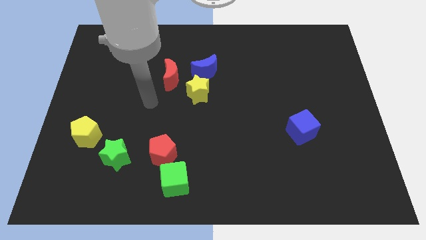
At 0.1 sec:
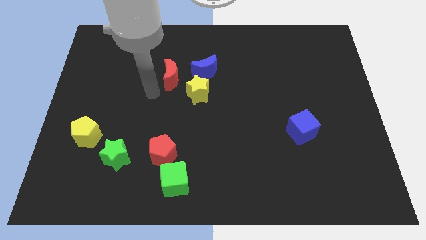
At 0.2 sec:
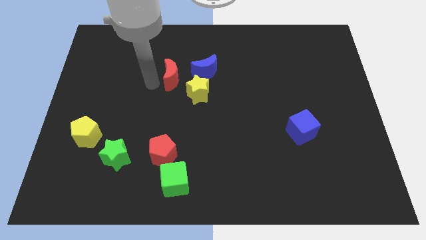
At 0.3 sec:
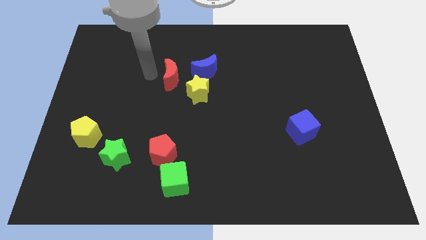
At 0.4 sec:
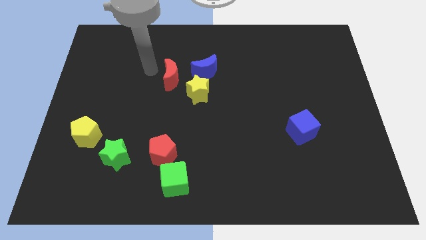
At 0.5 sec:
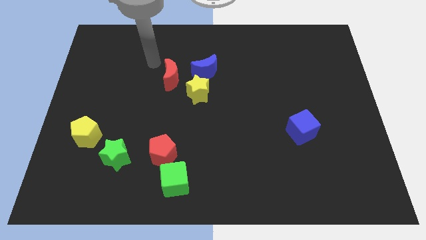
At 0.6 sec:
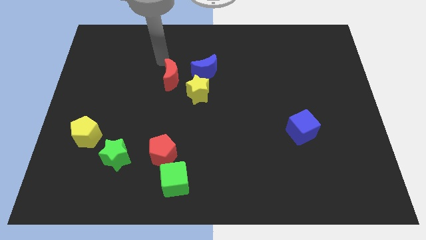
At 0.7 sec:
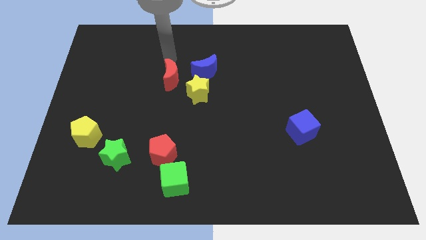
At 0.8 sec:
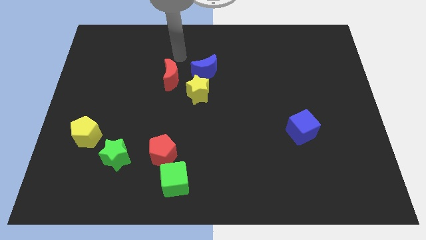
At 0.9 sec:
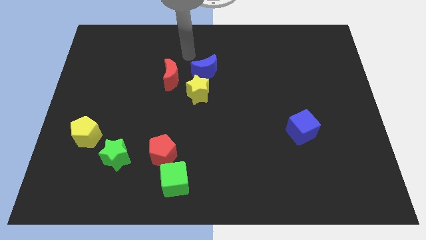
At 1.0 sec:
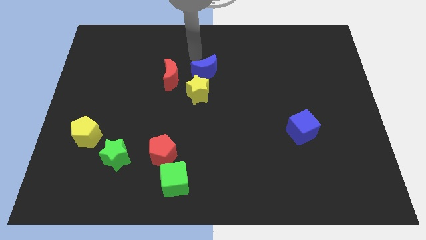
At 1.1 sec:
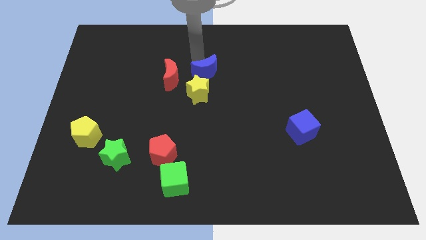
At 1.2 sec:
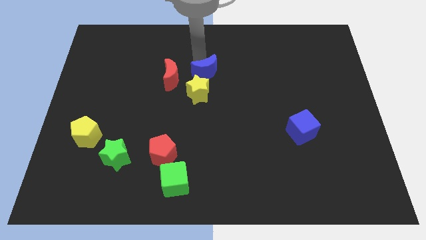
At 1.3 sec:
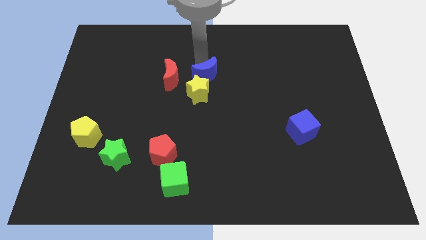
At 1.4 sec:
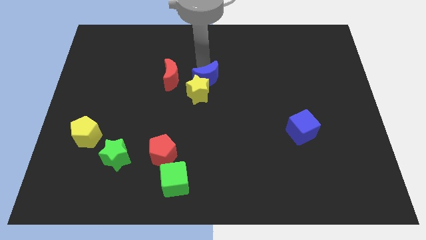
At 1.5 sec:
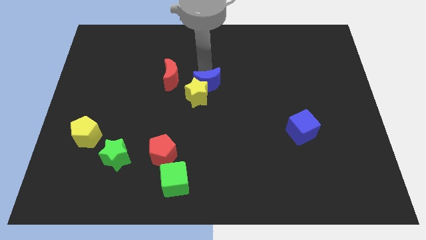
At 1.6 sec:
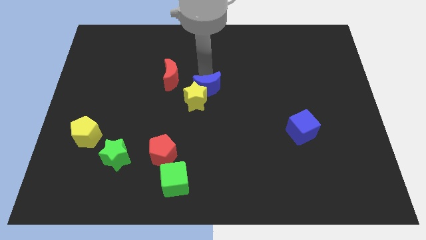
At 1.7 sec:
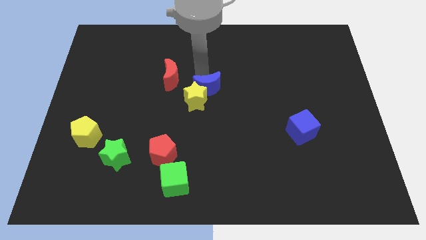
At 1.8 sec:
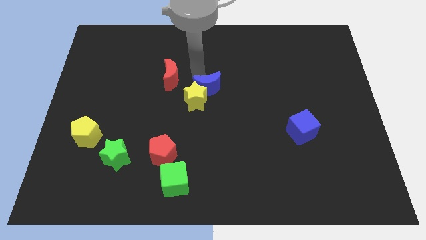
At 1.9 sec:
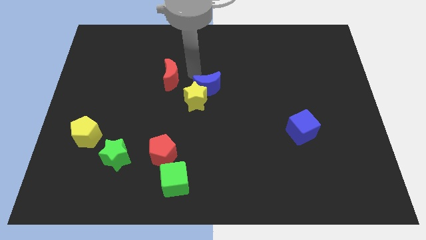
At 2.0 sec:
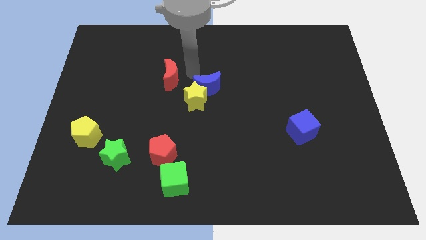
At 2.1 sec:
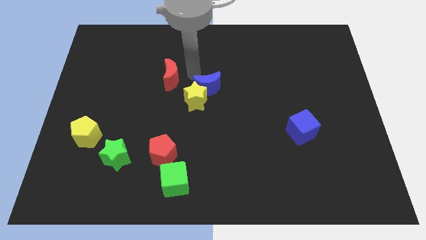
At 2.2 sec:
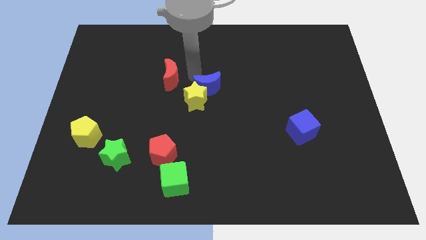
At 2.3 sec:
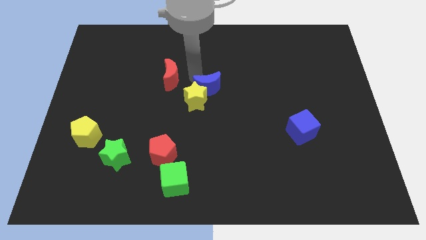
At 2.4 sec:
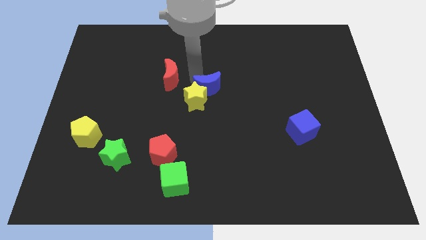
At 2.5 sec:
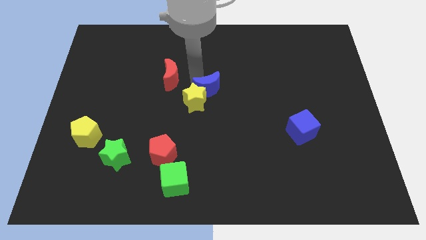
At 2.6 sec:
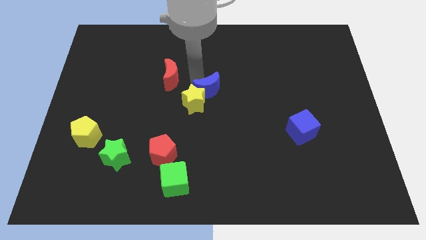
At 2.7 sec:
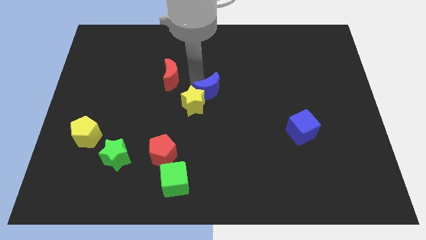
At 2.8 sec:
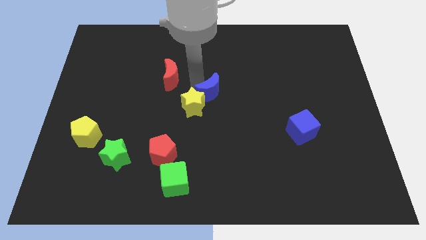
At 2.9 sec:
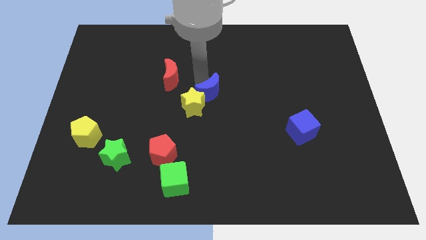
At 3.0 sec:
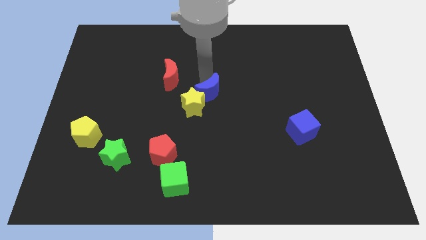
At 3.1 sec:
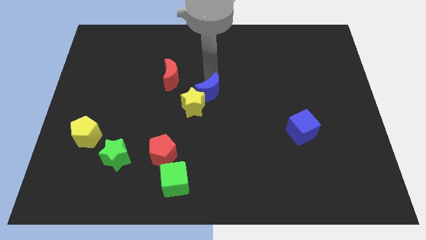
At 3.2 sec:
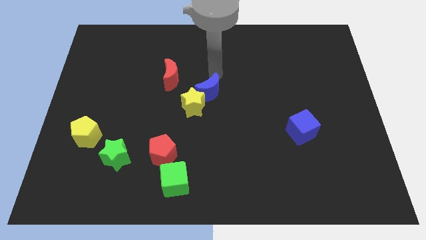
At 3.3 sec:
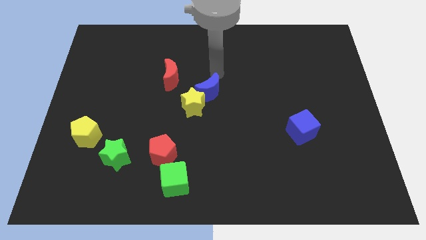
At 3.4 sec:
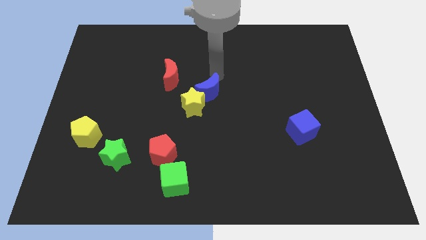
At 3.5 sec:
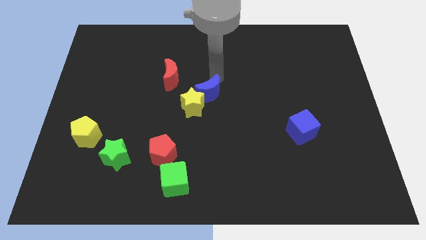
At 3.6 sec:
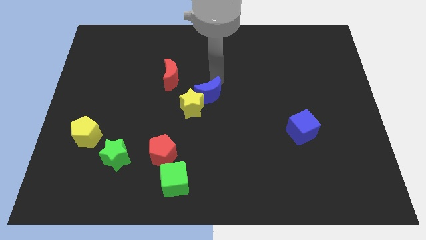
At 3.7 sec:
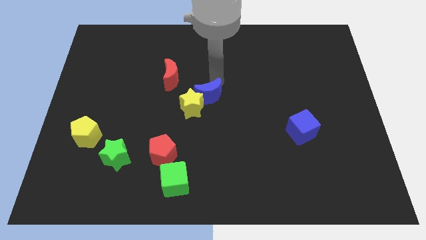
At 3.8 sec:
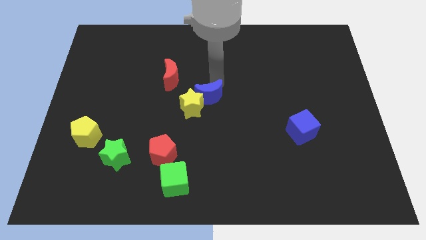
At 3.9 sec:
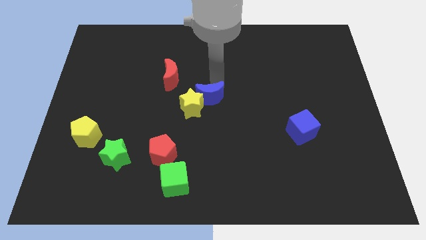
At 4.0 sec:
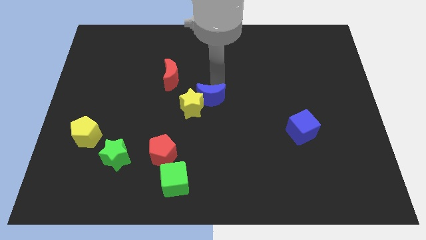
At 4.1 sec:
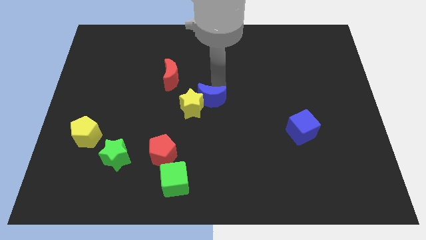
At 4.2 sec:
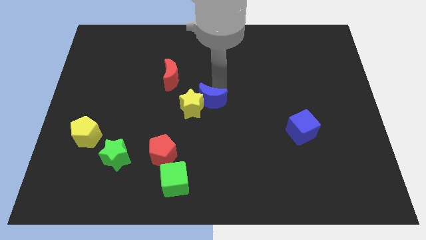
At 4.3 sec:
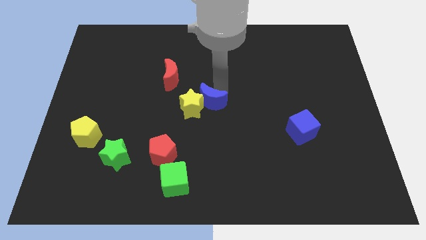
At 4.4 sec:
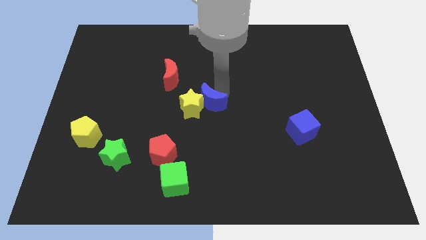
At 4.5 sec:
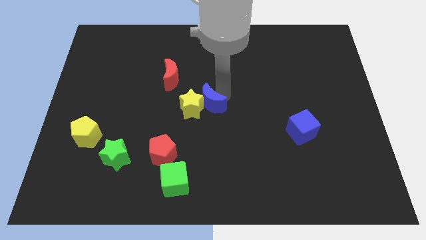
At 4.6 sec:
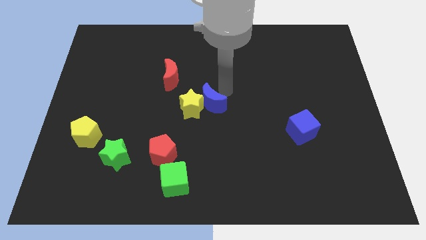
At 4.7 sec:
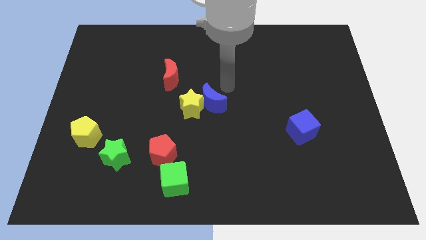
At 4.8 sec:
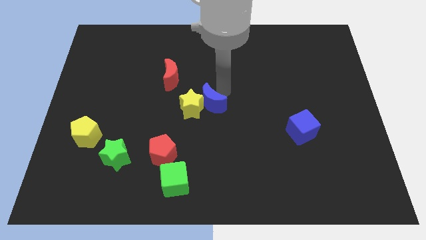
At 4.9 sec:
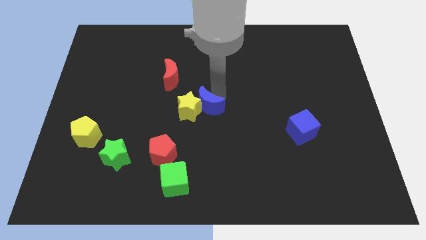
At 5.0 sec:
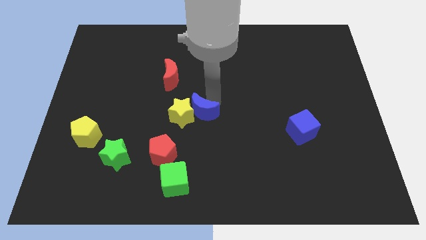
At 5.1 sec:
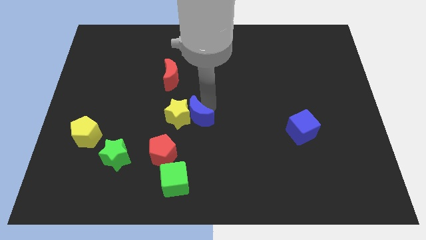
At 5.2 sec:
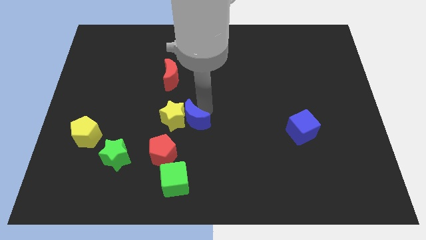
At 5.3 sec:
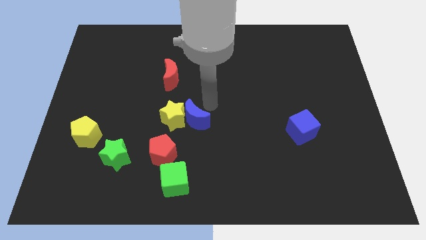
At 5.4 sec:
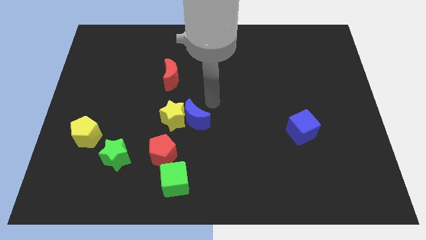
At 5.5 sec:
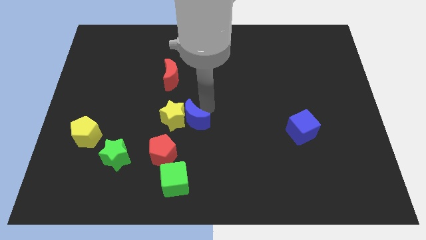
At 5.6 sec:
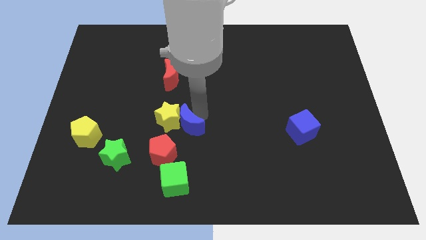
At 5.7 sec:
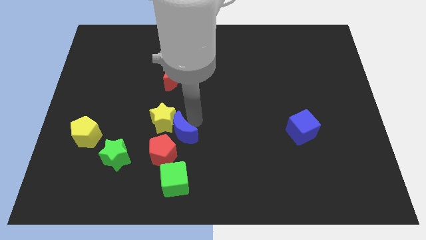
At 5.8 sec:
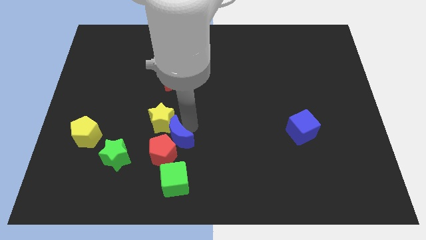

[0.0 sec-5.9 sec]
slide the blue moon to the red pentagon

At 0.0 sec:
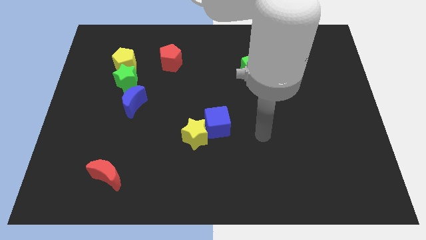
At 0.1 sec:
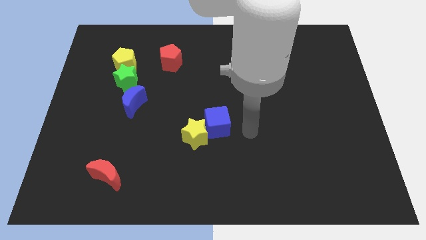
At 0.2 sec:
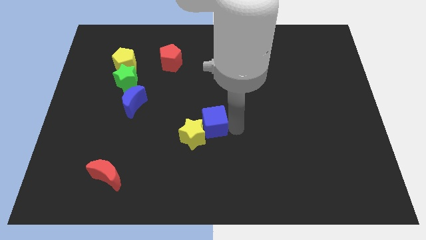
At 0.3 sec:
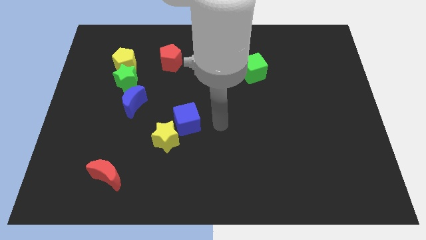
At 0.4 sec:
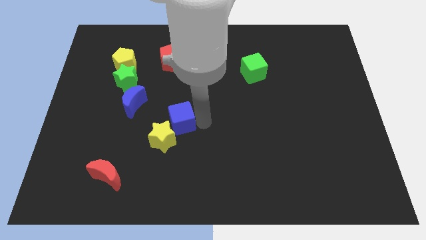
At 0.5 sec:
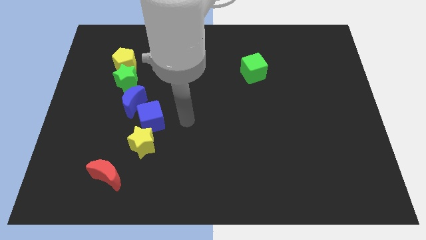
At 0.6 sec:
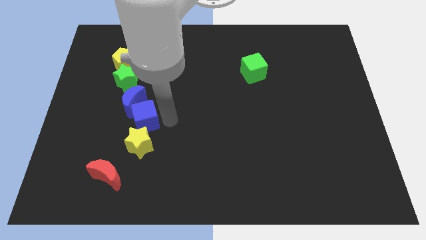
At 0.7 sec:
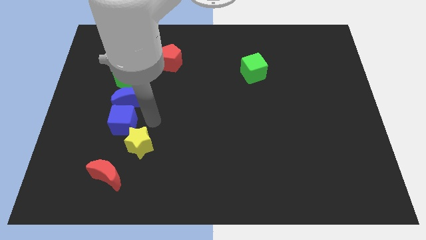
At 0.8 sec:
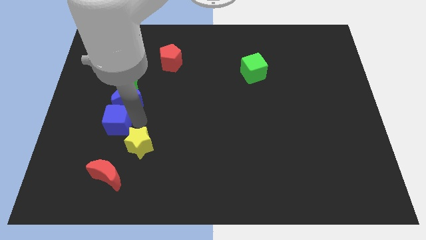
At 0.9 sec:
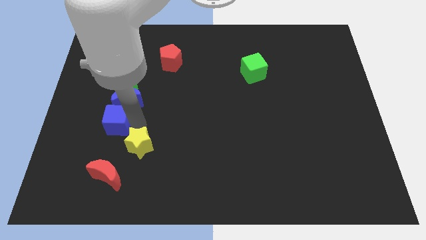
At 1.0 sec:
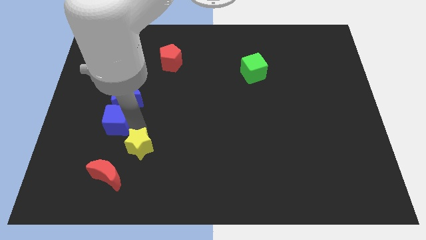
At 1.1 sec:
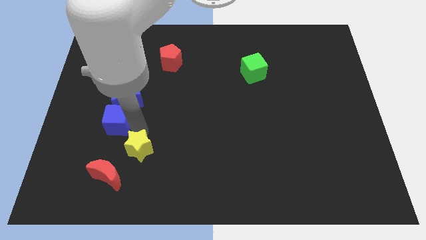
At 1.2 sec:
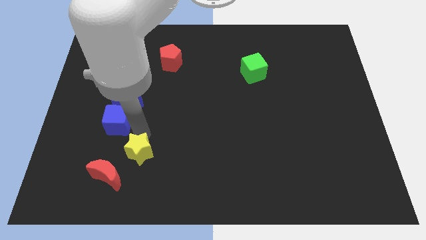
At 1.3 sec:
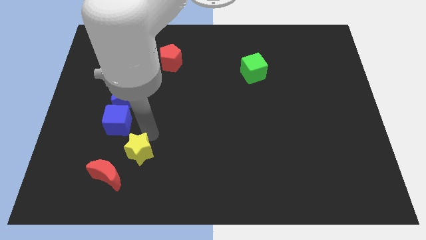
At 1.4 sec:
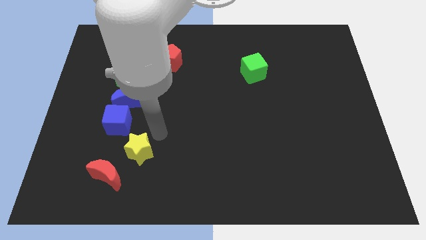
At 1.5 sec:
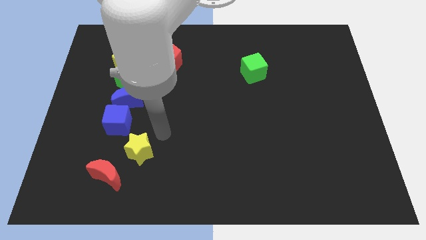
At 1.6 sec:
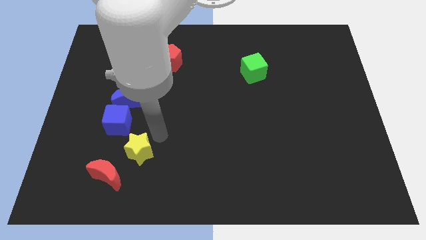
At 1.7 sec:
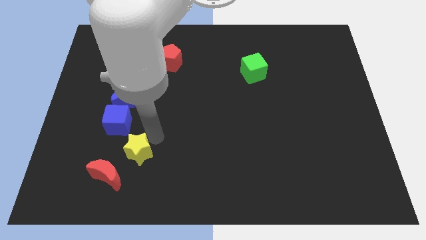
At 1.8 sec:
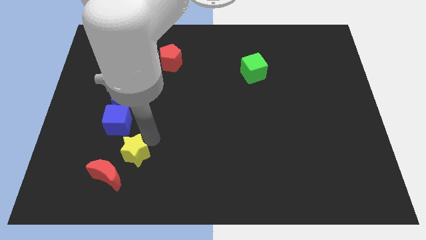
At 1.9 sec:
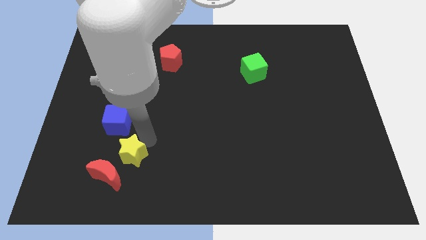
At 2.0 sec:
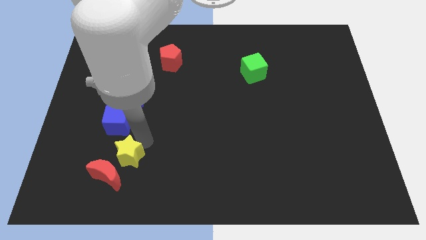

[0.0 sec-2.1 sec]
slide the yellow star to the red moon
